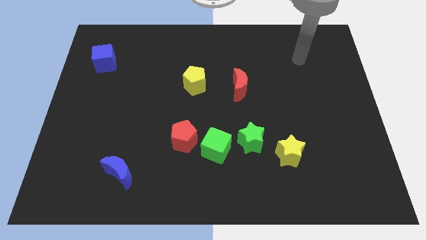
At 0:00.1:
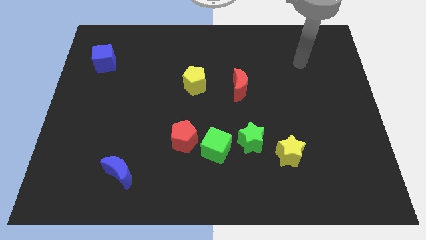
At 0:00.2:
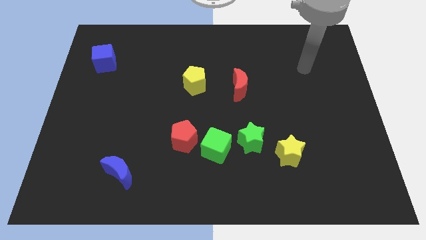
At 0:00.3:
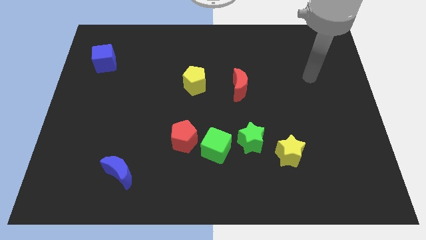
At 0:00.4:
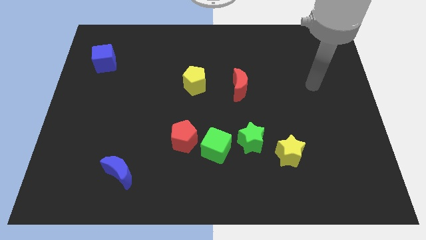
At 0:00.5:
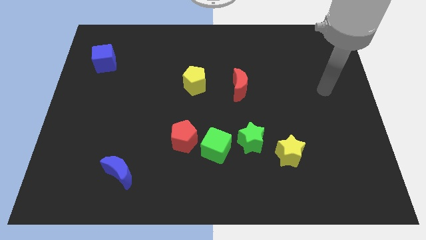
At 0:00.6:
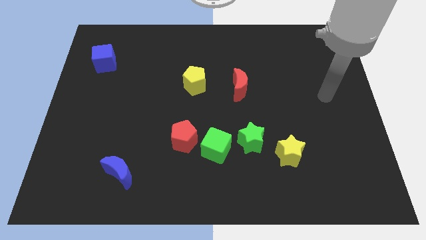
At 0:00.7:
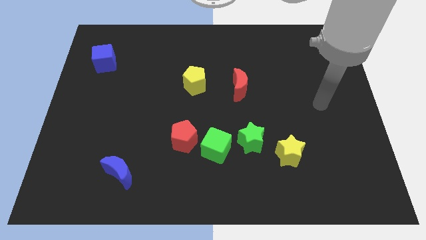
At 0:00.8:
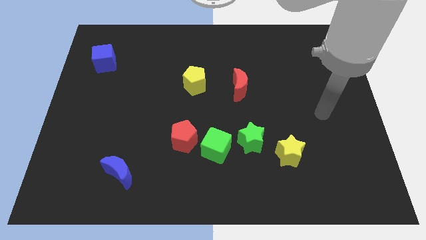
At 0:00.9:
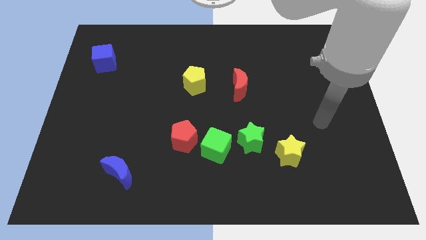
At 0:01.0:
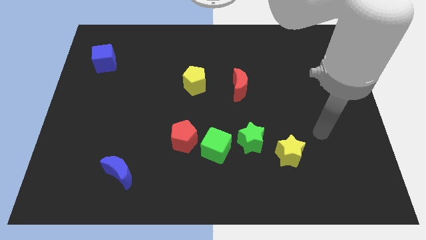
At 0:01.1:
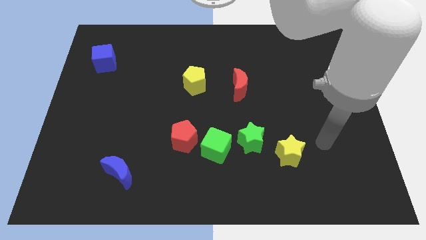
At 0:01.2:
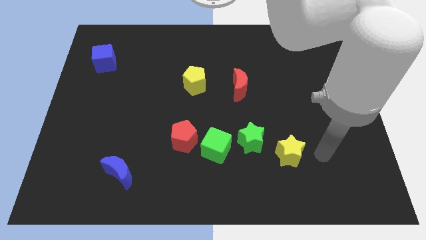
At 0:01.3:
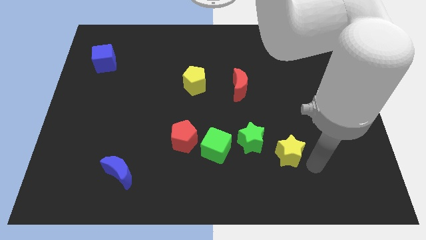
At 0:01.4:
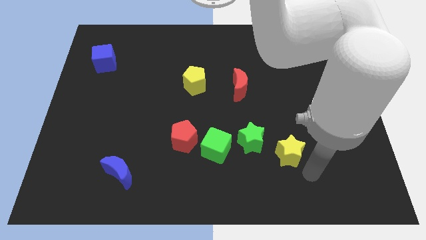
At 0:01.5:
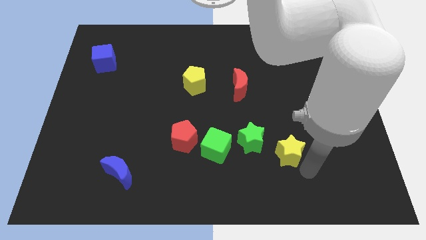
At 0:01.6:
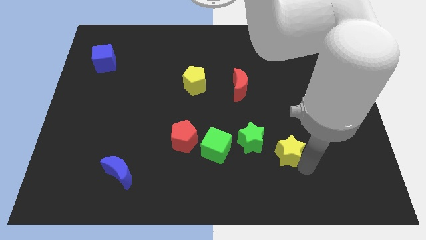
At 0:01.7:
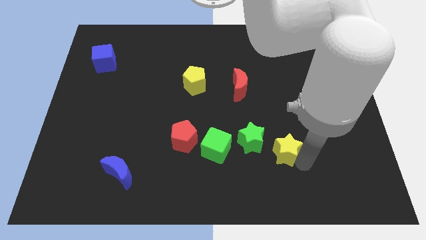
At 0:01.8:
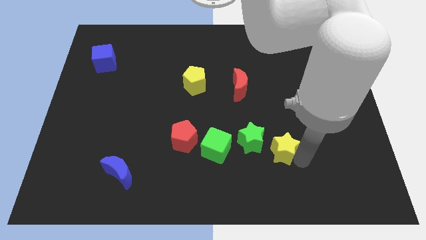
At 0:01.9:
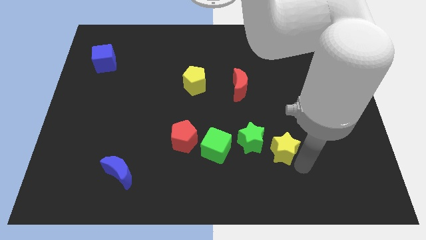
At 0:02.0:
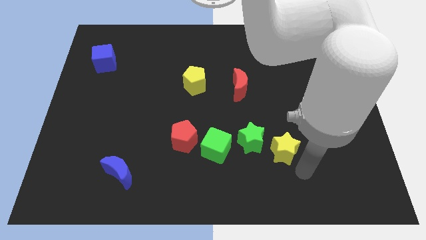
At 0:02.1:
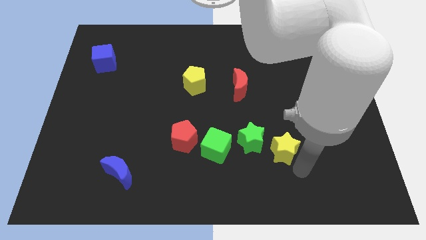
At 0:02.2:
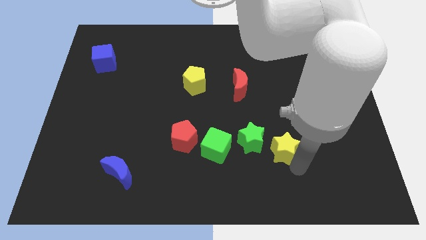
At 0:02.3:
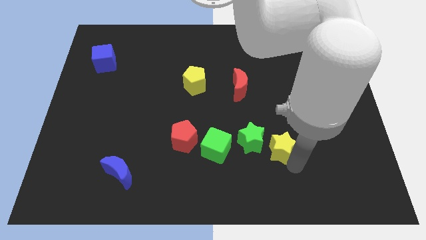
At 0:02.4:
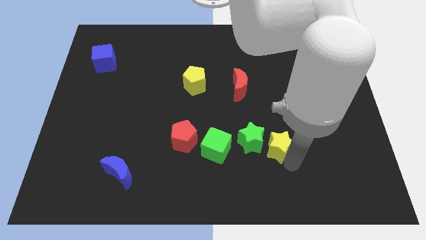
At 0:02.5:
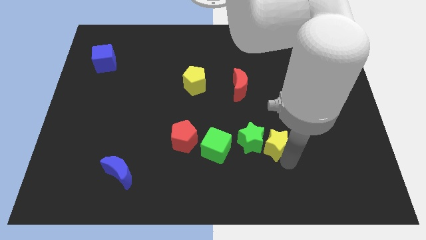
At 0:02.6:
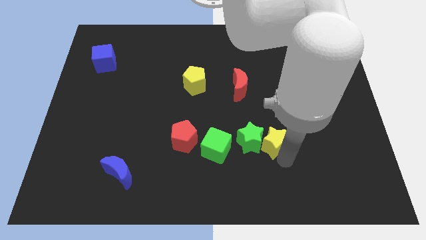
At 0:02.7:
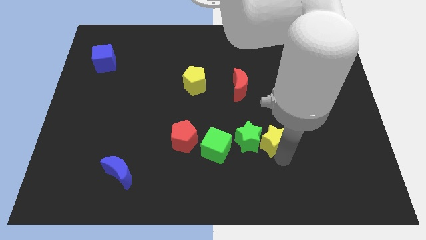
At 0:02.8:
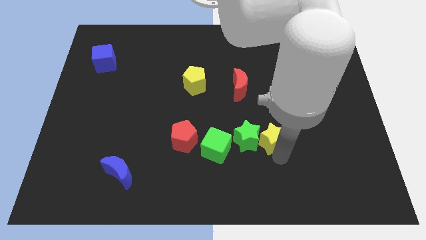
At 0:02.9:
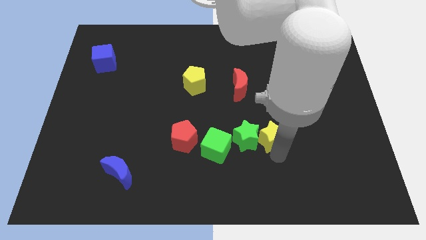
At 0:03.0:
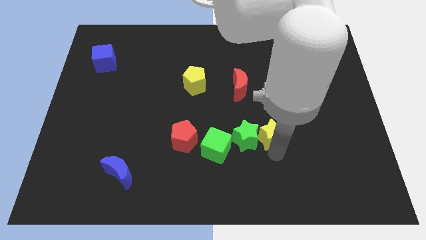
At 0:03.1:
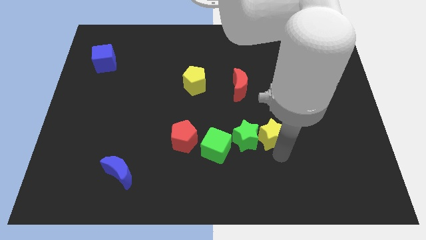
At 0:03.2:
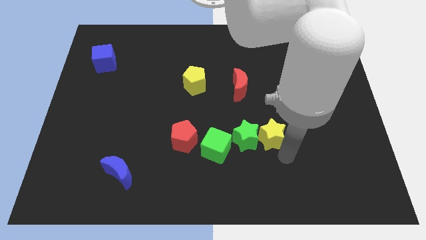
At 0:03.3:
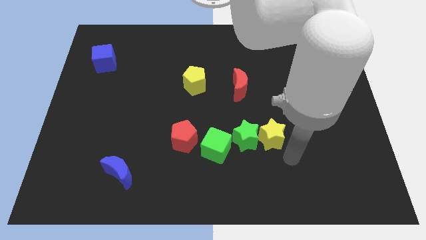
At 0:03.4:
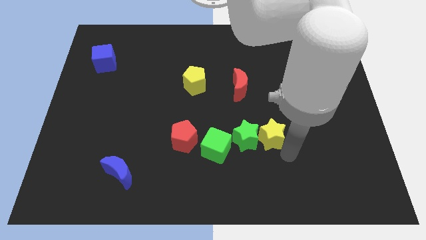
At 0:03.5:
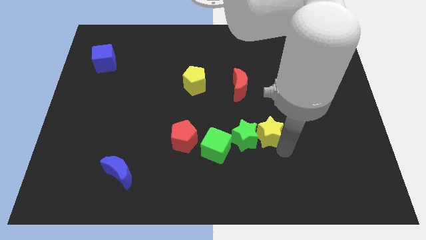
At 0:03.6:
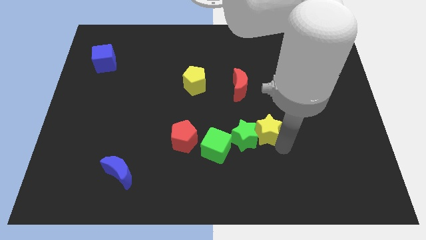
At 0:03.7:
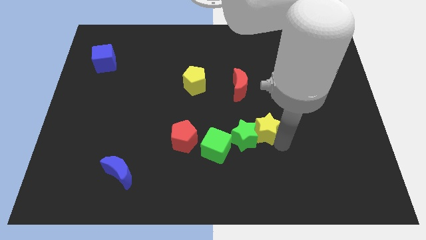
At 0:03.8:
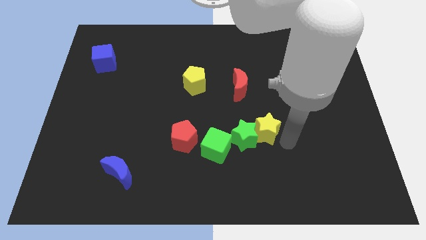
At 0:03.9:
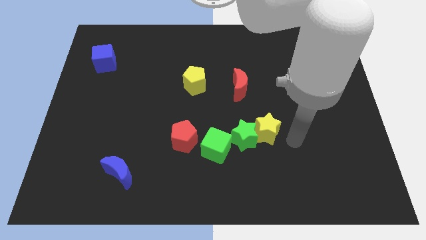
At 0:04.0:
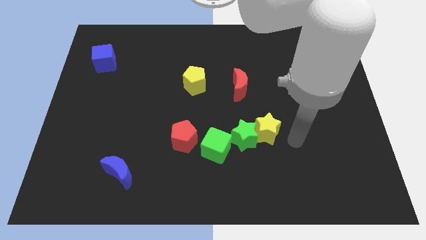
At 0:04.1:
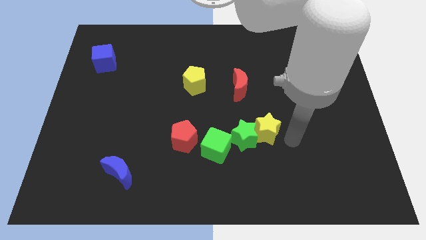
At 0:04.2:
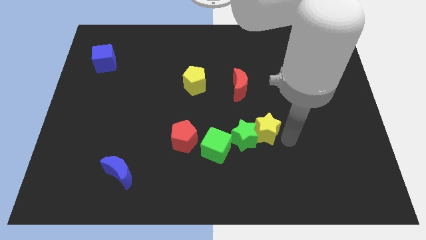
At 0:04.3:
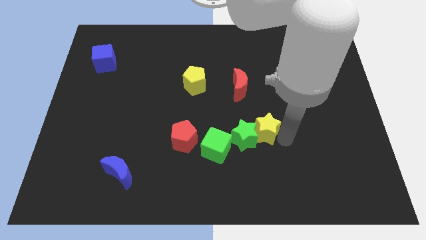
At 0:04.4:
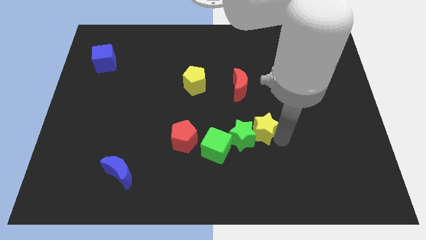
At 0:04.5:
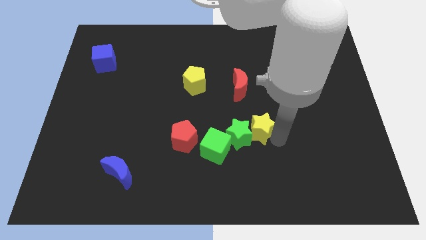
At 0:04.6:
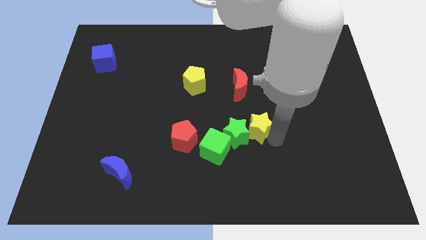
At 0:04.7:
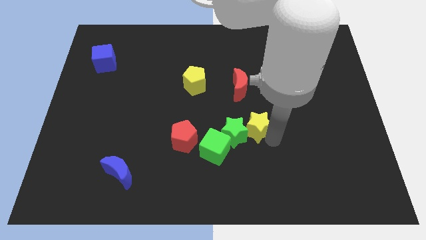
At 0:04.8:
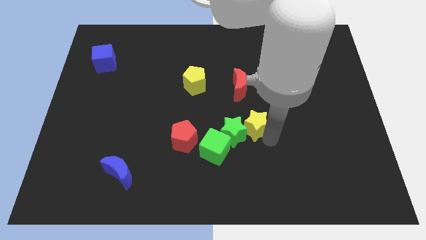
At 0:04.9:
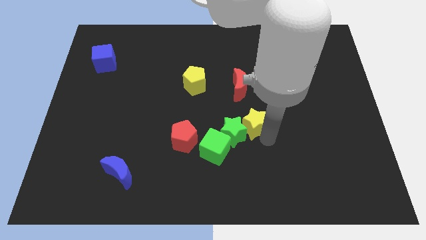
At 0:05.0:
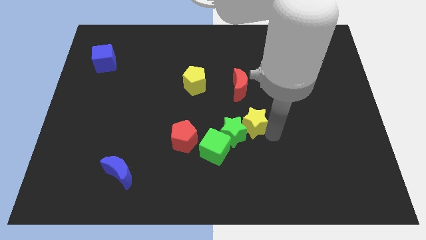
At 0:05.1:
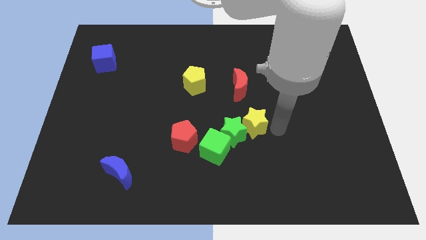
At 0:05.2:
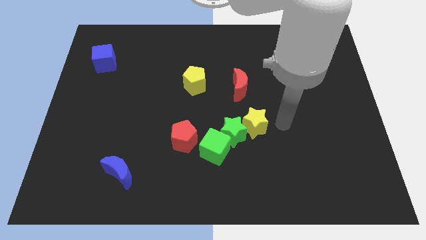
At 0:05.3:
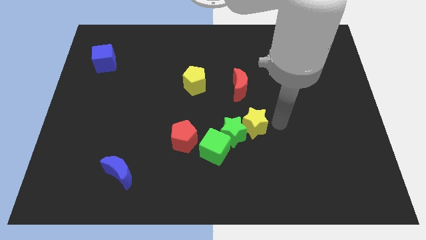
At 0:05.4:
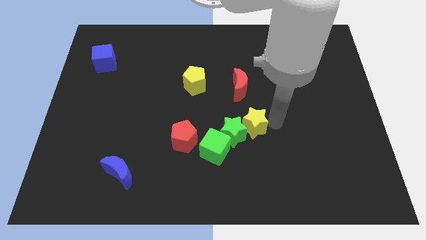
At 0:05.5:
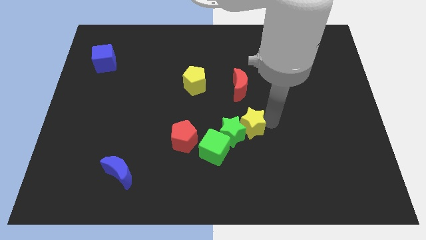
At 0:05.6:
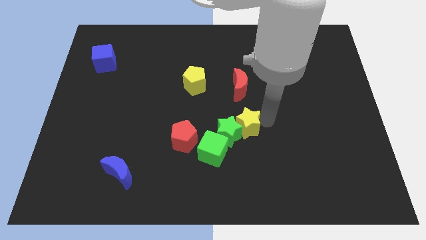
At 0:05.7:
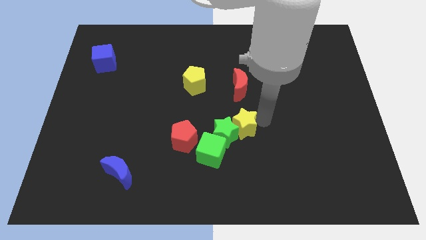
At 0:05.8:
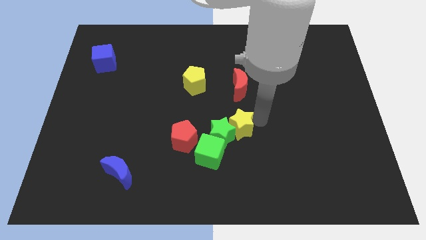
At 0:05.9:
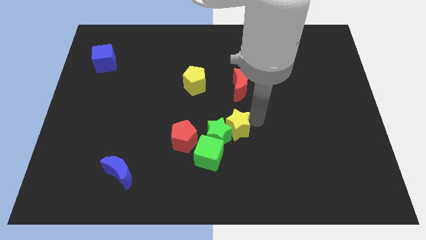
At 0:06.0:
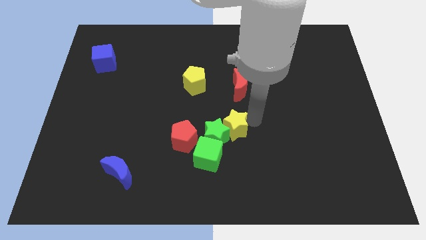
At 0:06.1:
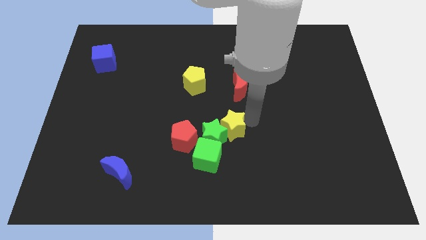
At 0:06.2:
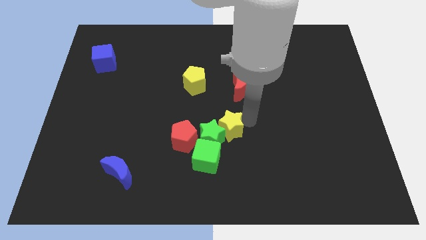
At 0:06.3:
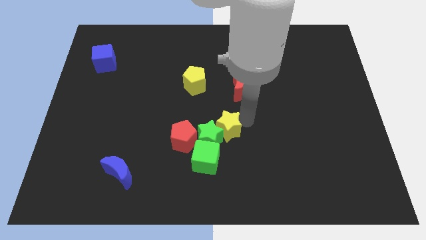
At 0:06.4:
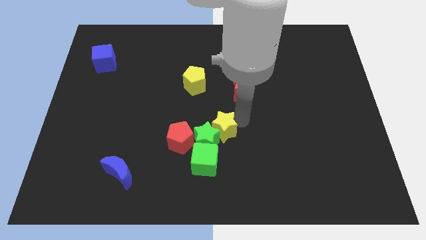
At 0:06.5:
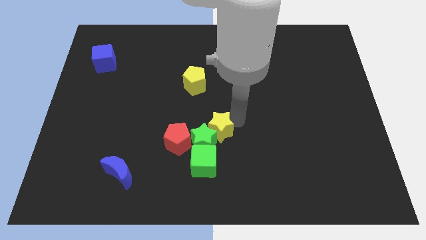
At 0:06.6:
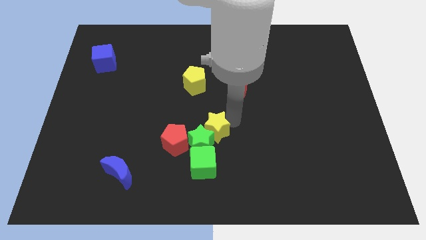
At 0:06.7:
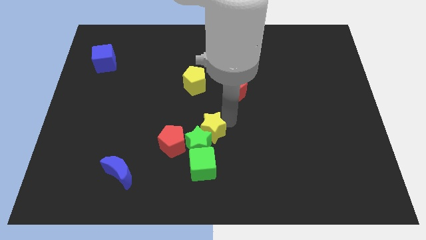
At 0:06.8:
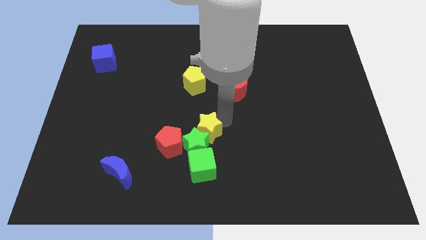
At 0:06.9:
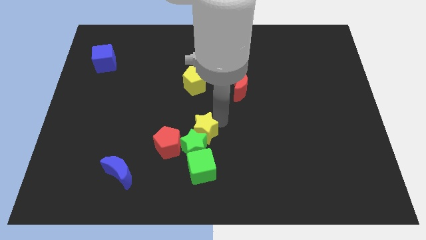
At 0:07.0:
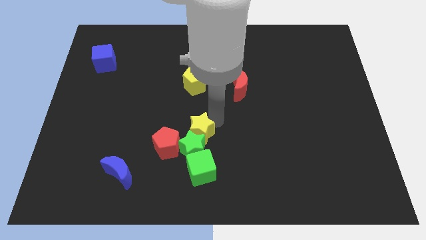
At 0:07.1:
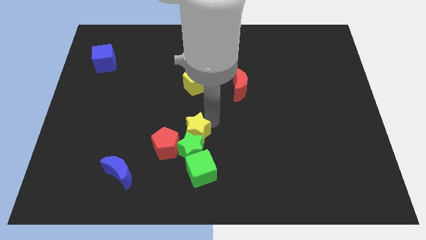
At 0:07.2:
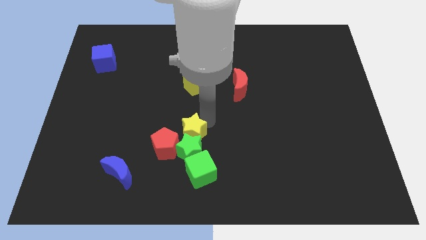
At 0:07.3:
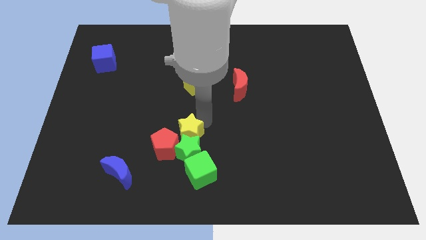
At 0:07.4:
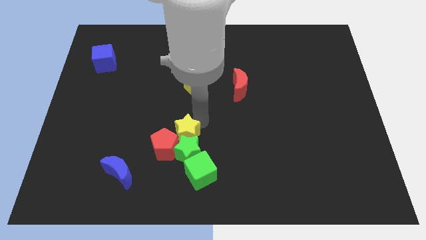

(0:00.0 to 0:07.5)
move the yellow star towards the red pentagon

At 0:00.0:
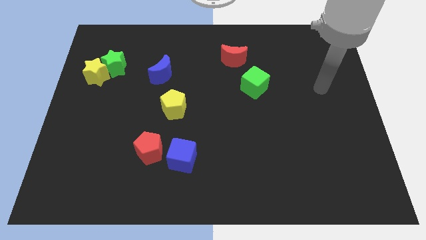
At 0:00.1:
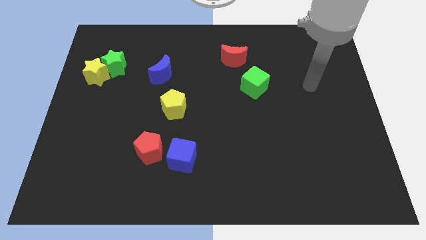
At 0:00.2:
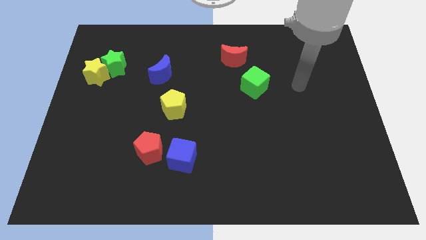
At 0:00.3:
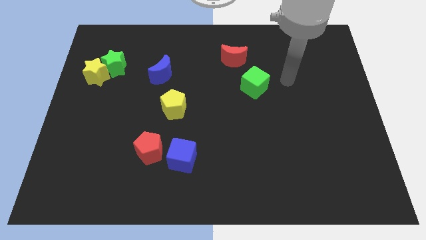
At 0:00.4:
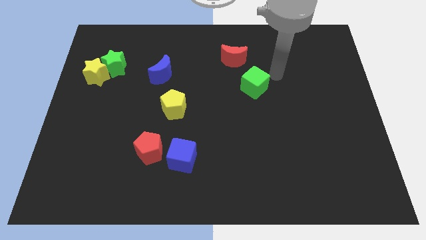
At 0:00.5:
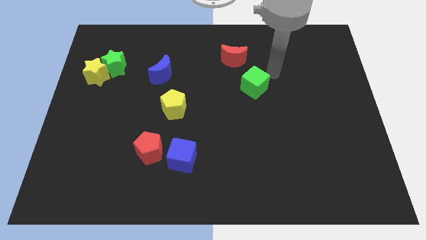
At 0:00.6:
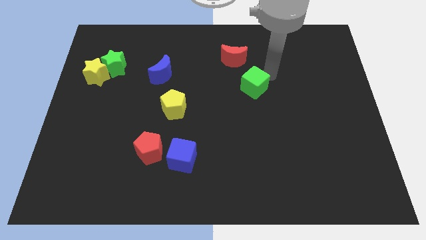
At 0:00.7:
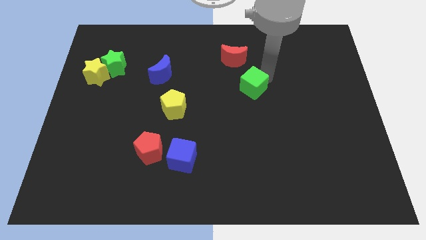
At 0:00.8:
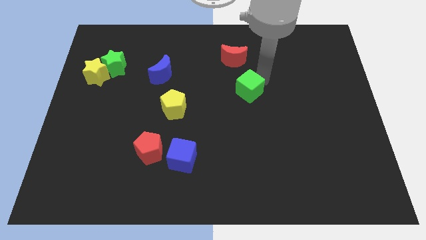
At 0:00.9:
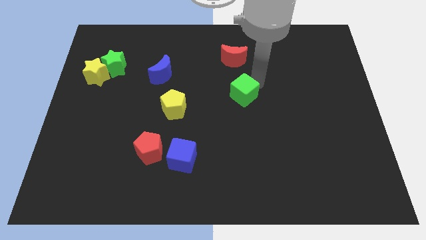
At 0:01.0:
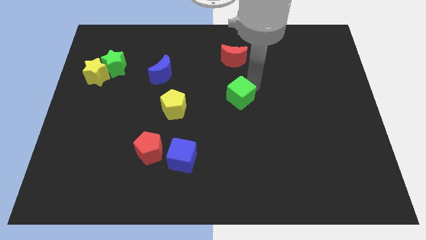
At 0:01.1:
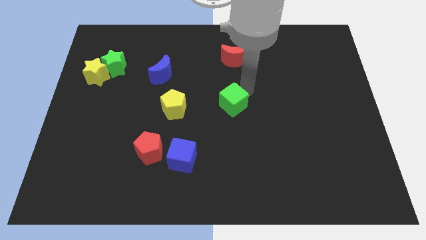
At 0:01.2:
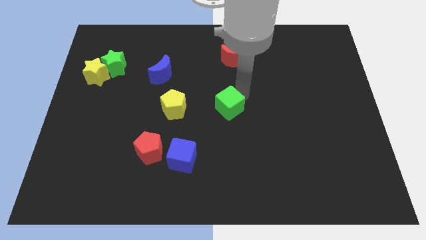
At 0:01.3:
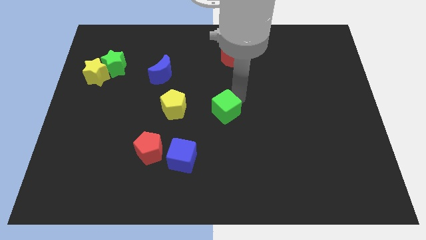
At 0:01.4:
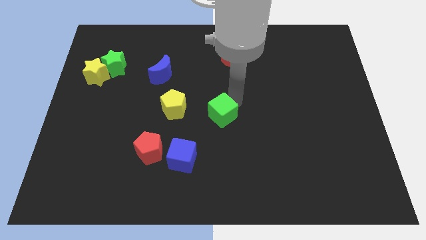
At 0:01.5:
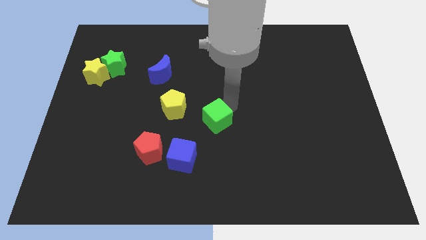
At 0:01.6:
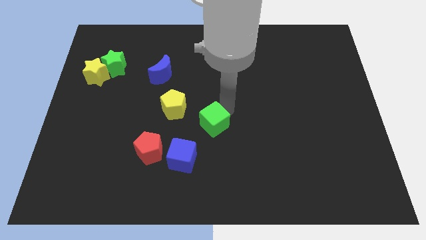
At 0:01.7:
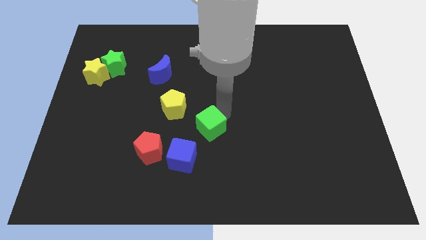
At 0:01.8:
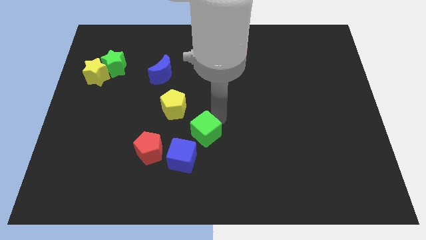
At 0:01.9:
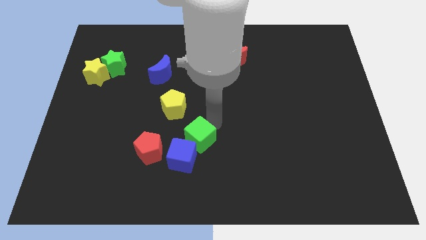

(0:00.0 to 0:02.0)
push the green cube close to the blue cube
